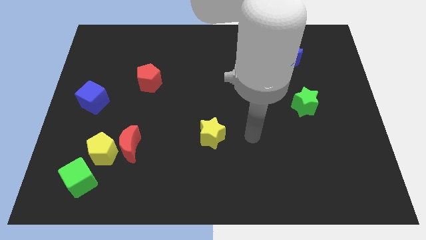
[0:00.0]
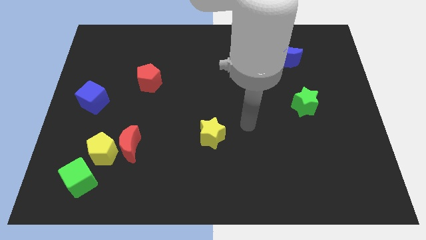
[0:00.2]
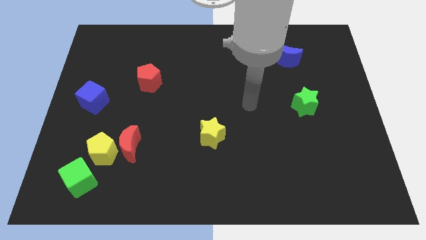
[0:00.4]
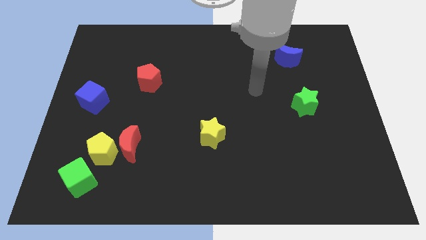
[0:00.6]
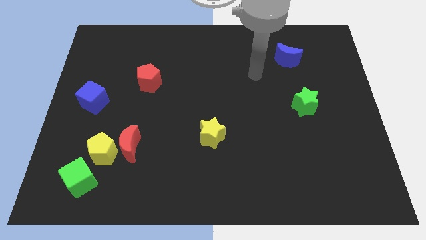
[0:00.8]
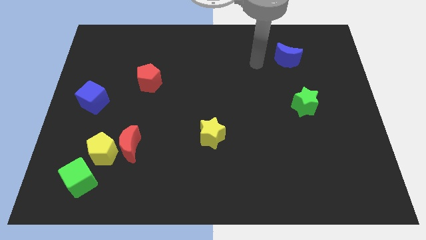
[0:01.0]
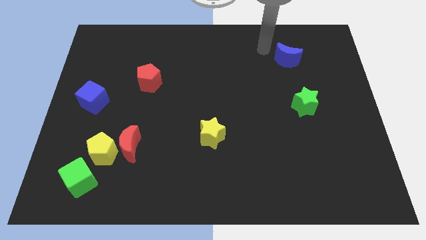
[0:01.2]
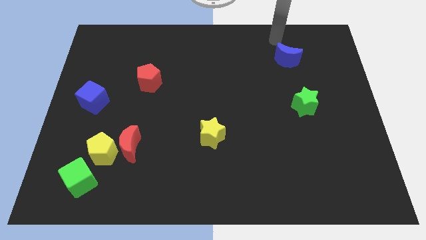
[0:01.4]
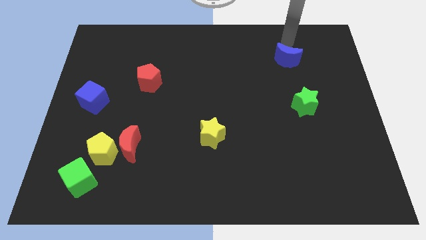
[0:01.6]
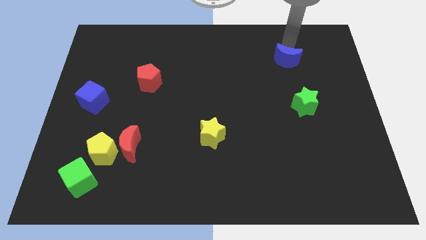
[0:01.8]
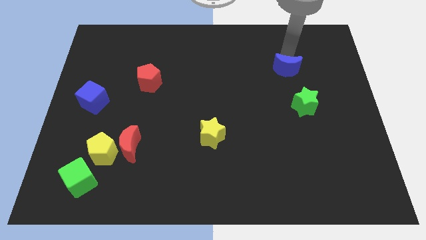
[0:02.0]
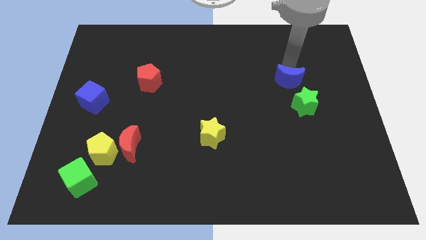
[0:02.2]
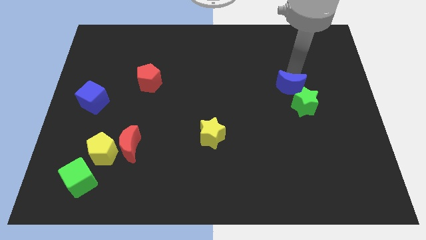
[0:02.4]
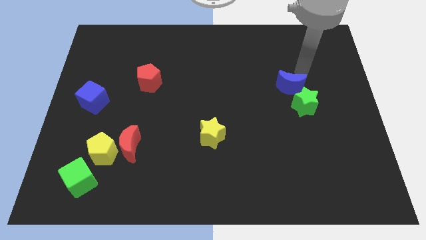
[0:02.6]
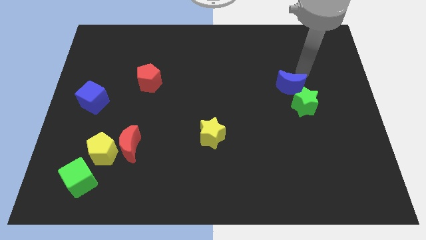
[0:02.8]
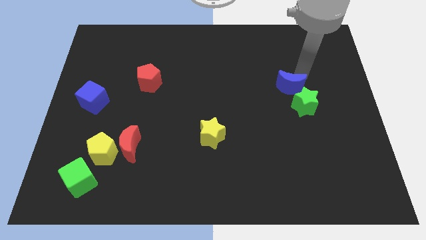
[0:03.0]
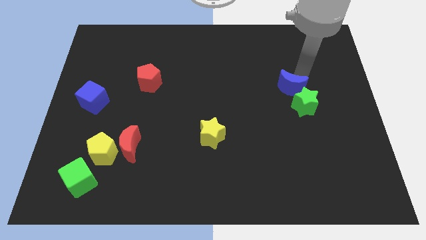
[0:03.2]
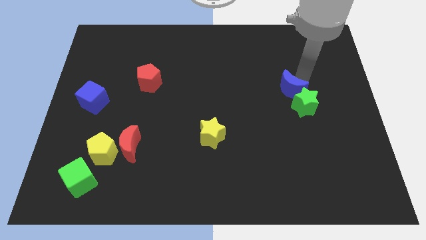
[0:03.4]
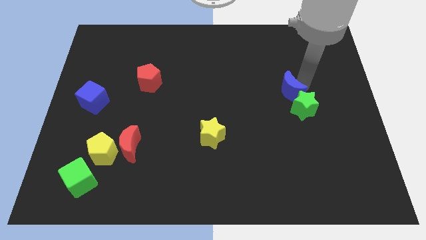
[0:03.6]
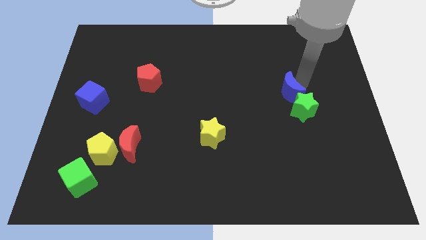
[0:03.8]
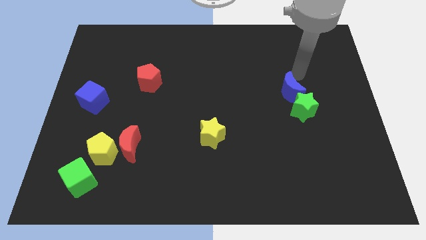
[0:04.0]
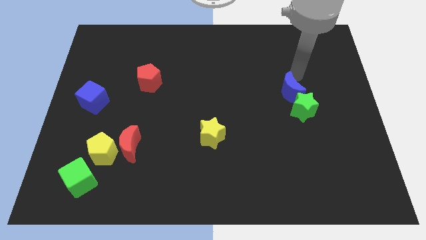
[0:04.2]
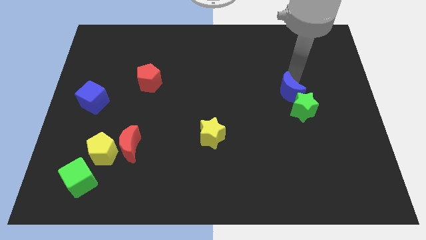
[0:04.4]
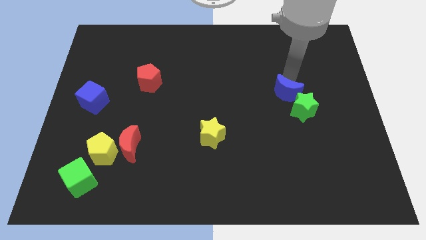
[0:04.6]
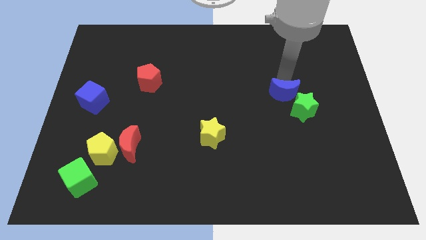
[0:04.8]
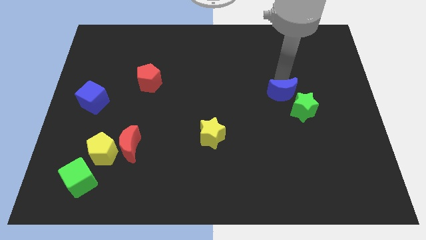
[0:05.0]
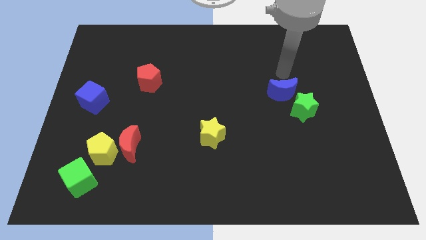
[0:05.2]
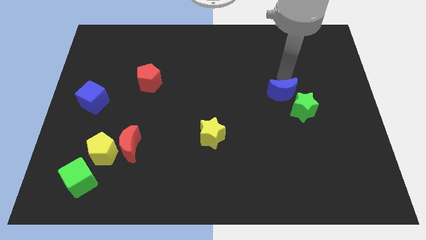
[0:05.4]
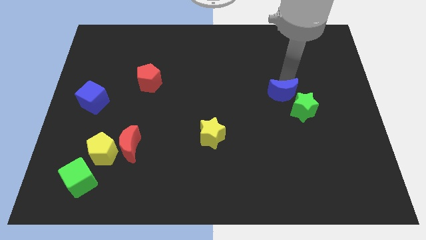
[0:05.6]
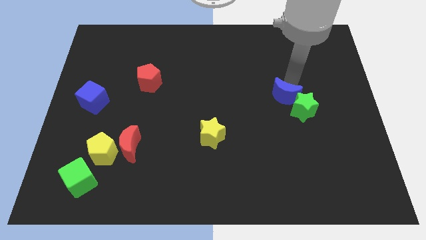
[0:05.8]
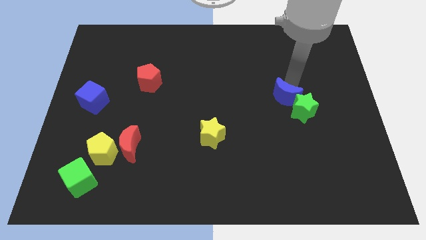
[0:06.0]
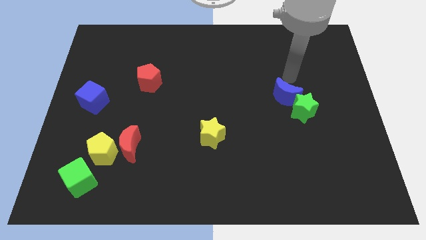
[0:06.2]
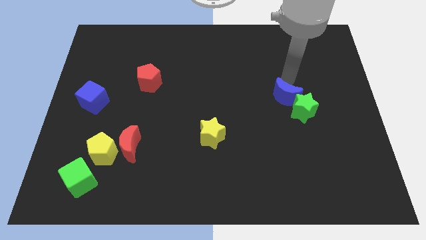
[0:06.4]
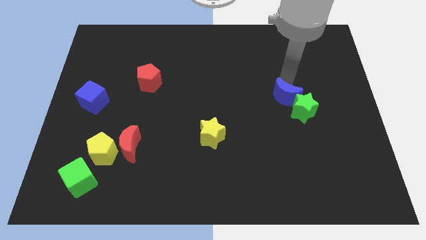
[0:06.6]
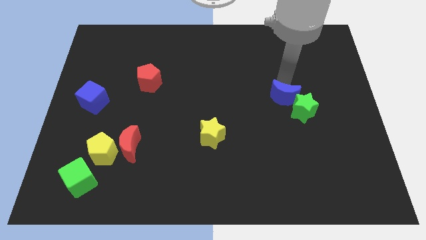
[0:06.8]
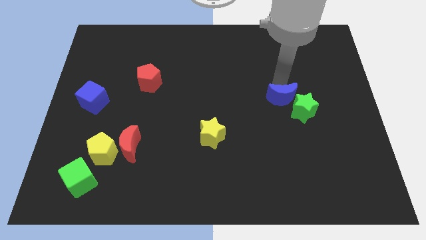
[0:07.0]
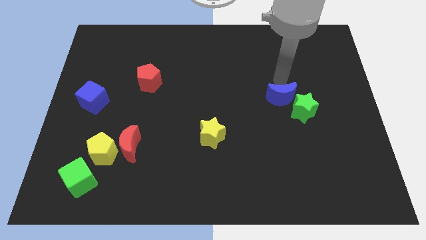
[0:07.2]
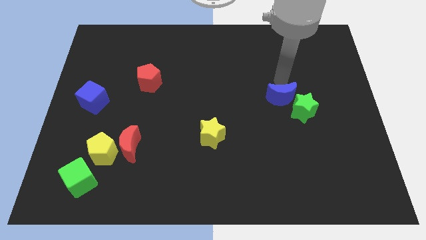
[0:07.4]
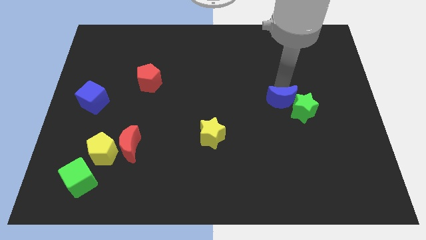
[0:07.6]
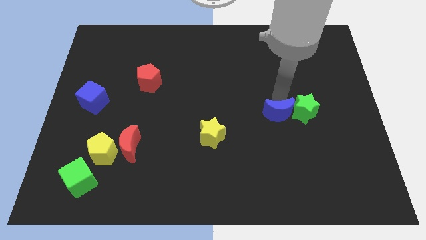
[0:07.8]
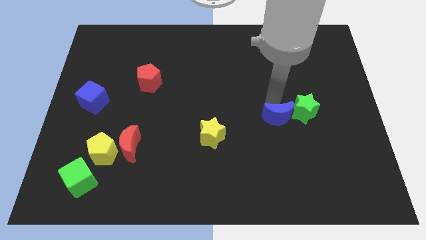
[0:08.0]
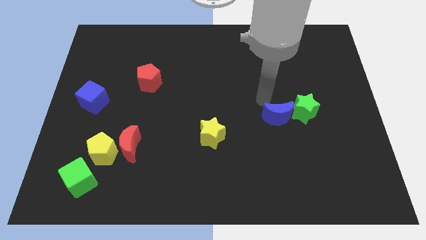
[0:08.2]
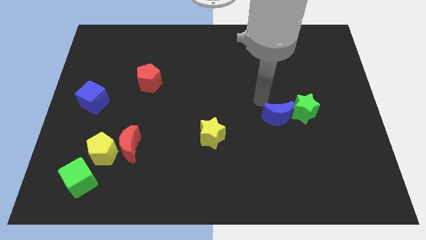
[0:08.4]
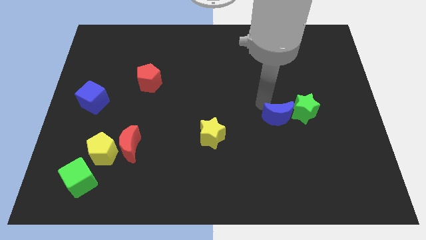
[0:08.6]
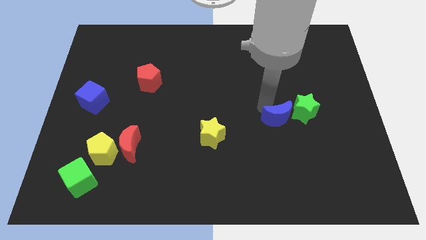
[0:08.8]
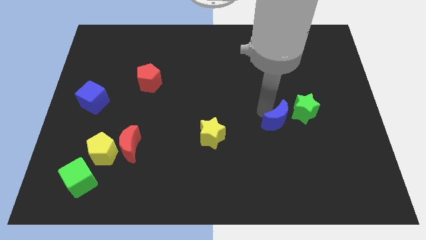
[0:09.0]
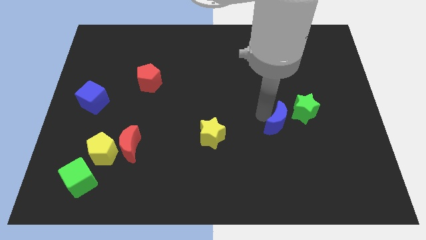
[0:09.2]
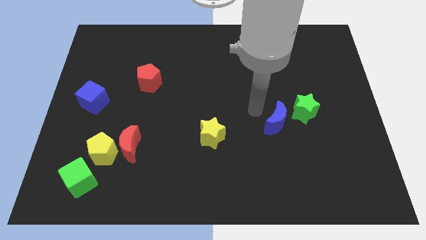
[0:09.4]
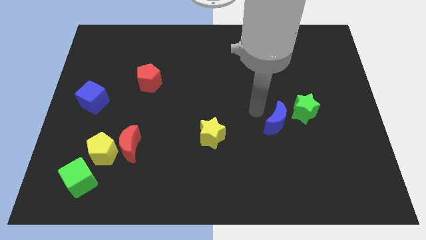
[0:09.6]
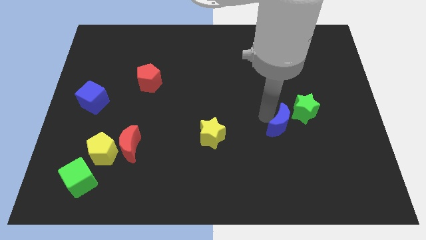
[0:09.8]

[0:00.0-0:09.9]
move the blue moon downwards

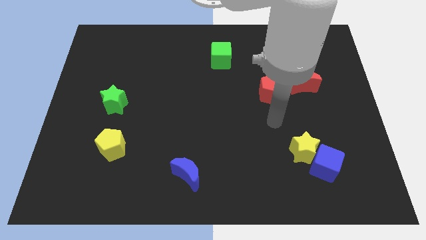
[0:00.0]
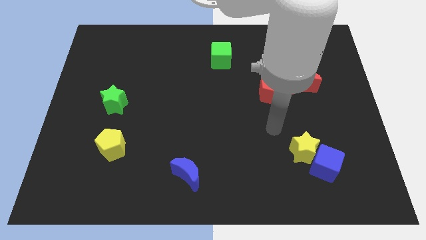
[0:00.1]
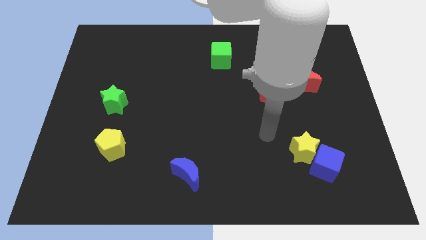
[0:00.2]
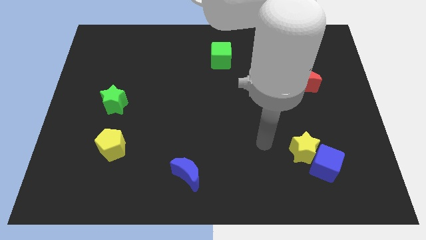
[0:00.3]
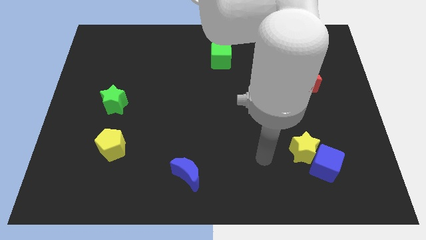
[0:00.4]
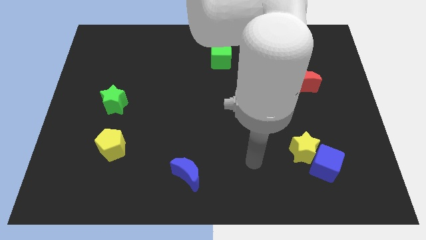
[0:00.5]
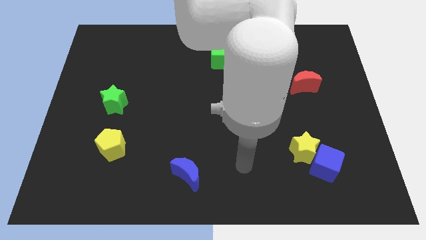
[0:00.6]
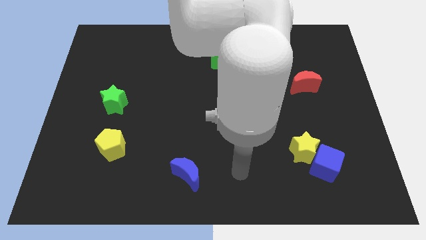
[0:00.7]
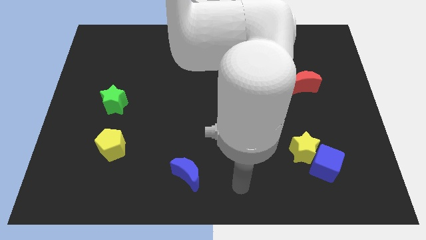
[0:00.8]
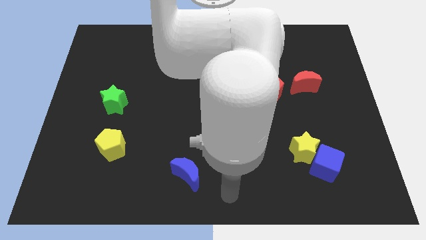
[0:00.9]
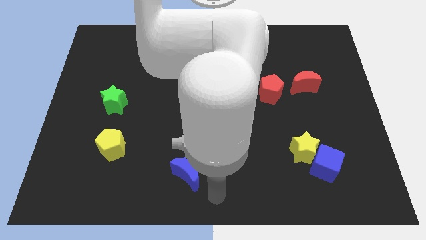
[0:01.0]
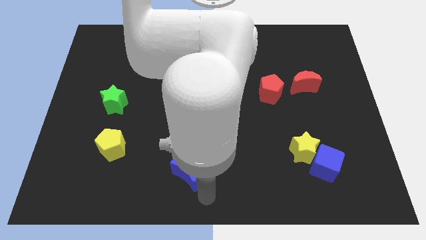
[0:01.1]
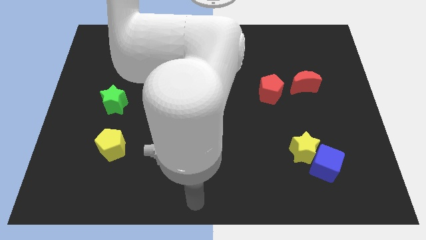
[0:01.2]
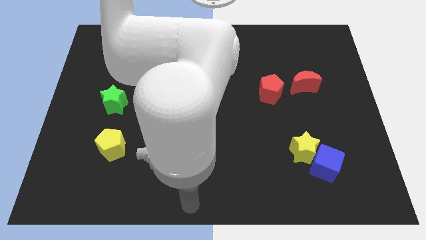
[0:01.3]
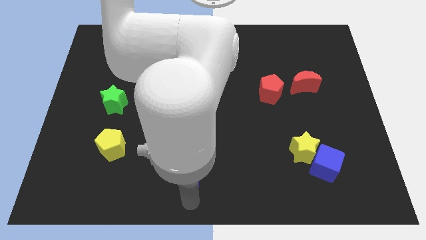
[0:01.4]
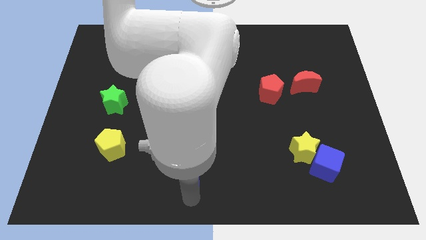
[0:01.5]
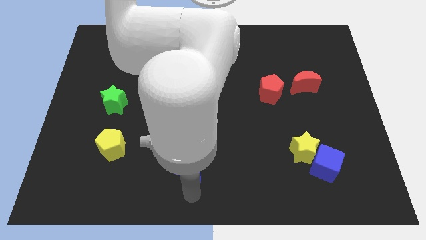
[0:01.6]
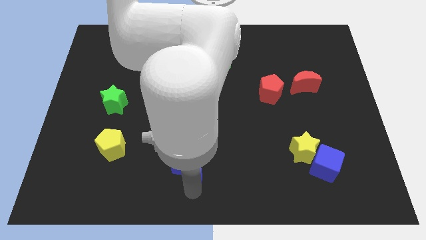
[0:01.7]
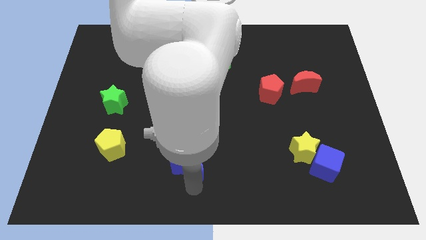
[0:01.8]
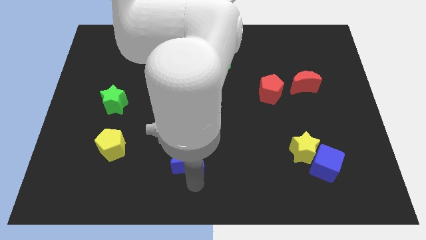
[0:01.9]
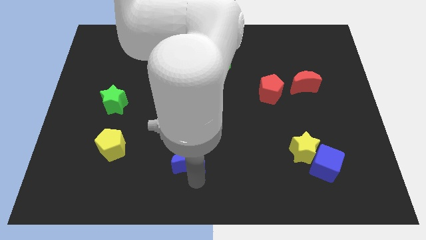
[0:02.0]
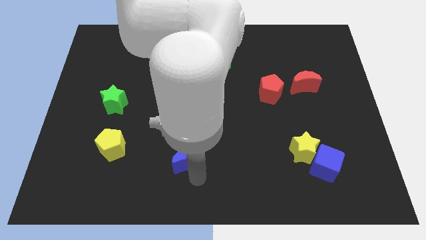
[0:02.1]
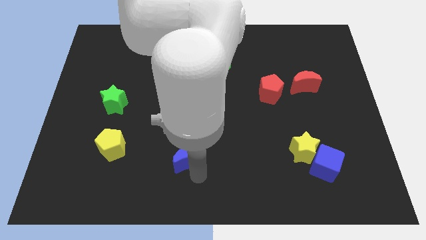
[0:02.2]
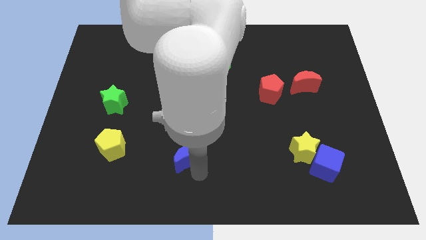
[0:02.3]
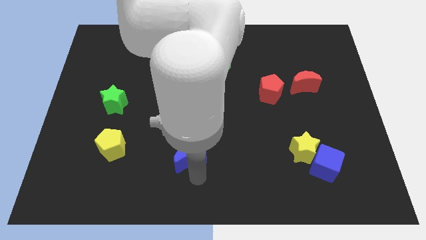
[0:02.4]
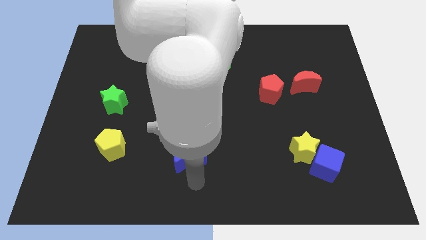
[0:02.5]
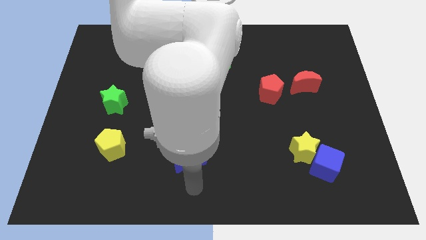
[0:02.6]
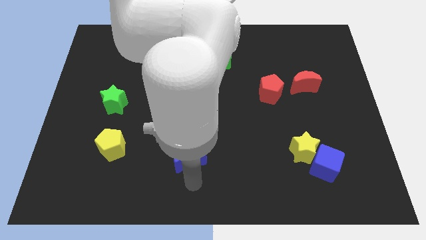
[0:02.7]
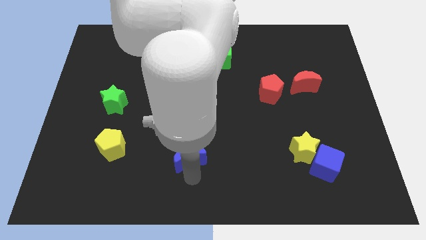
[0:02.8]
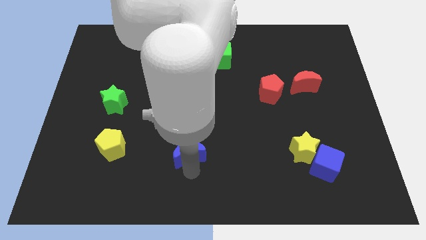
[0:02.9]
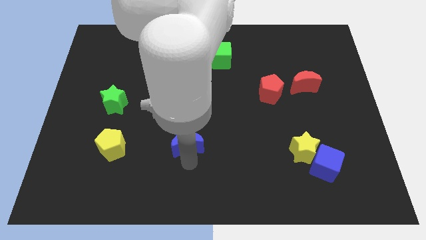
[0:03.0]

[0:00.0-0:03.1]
slightly move the blue moon up
